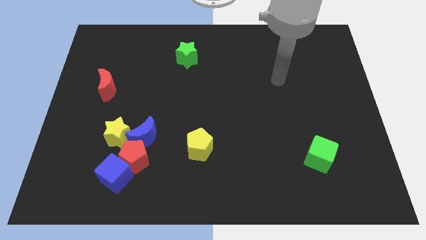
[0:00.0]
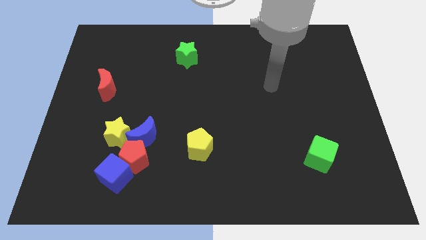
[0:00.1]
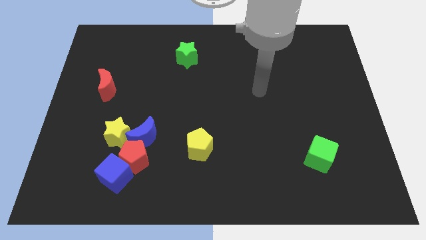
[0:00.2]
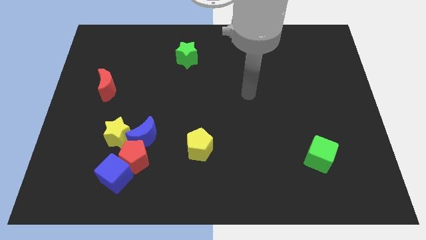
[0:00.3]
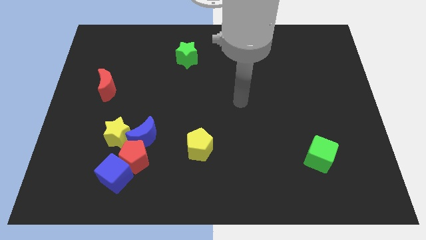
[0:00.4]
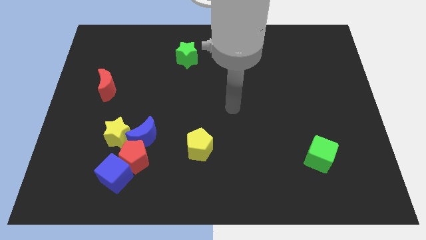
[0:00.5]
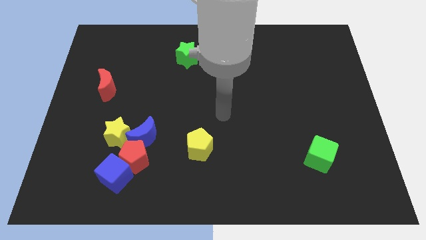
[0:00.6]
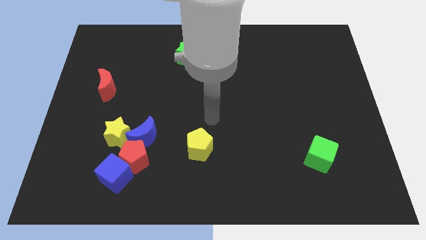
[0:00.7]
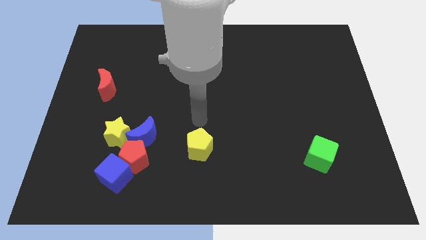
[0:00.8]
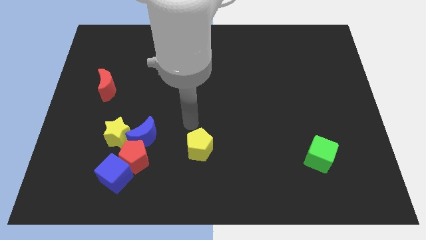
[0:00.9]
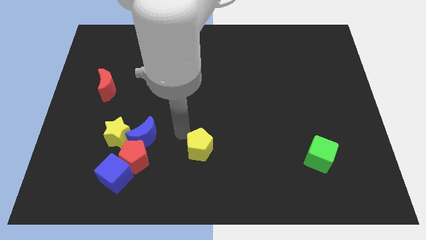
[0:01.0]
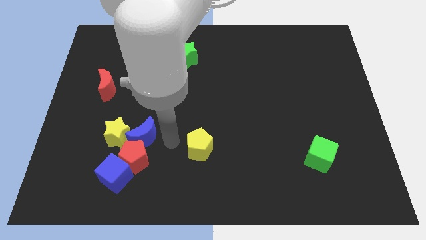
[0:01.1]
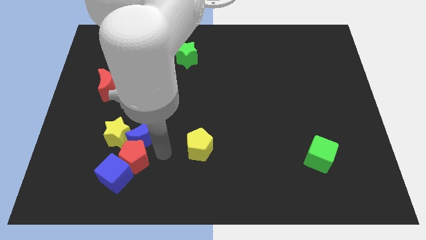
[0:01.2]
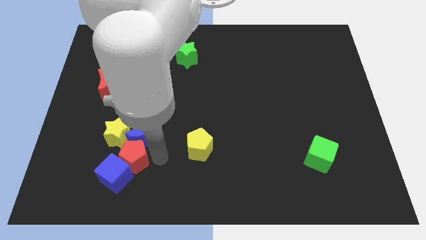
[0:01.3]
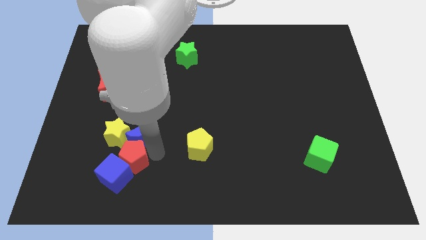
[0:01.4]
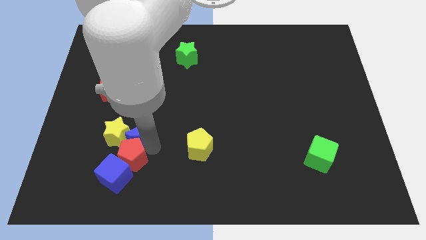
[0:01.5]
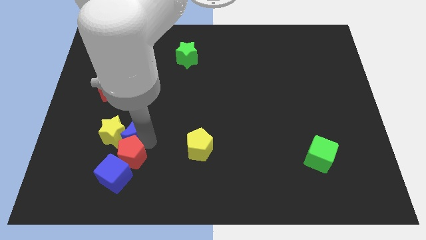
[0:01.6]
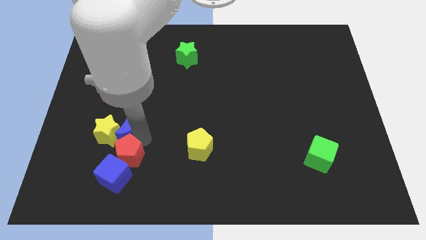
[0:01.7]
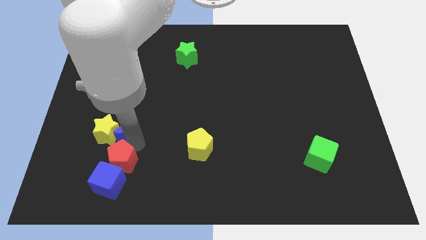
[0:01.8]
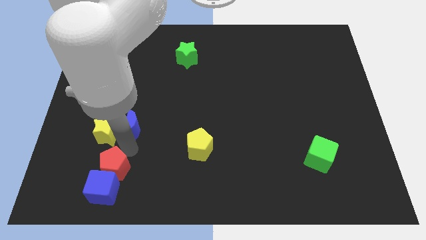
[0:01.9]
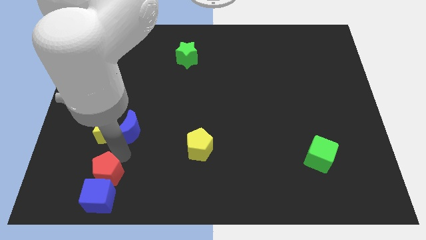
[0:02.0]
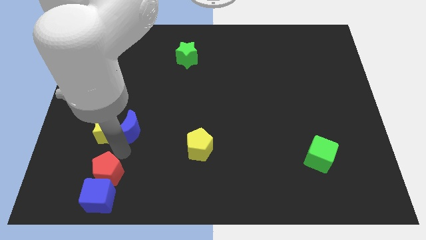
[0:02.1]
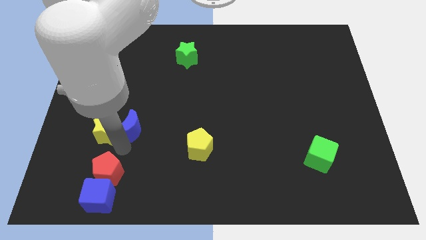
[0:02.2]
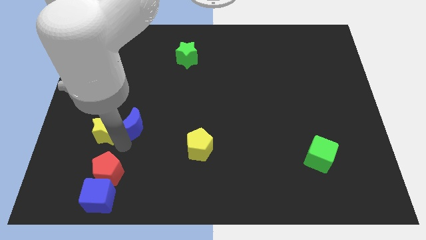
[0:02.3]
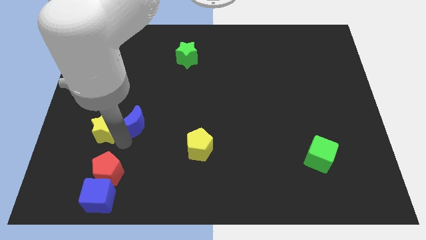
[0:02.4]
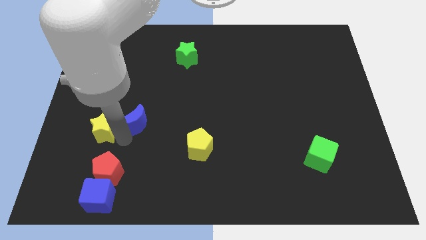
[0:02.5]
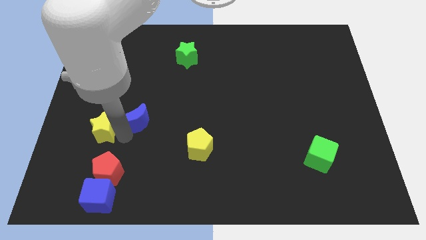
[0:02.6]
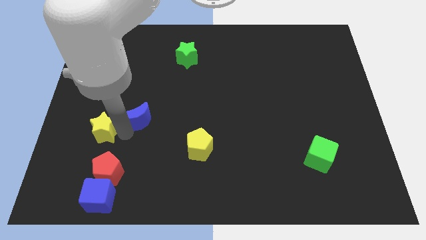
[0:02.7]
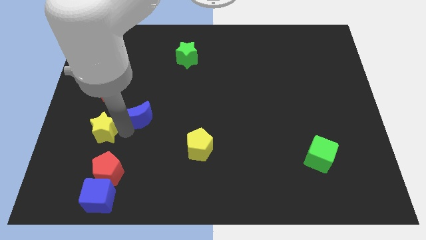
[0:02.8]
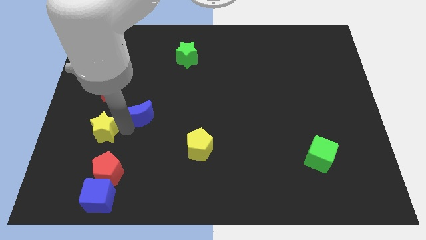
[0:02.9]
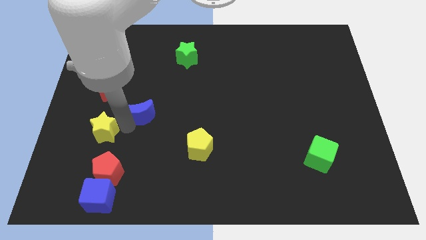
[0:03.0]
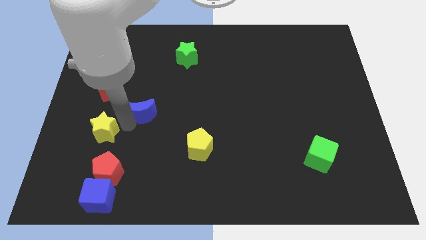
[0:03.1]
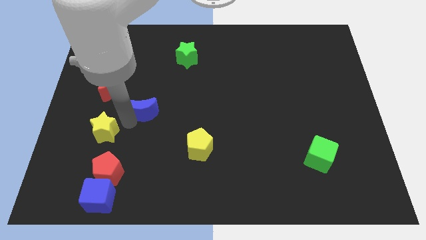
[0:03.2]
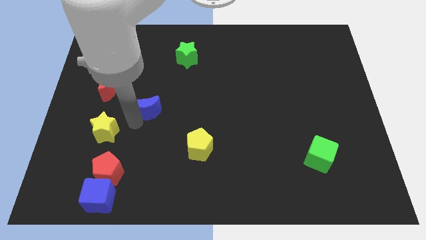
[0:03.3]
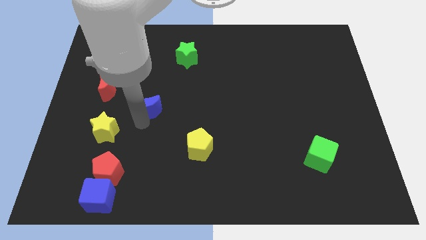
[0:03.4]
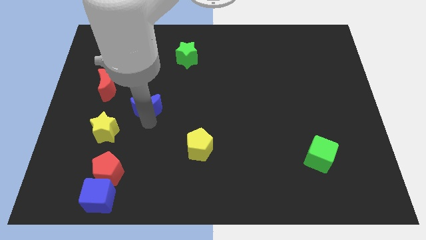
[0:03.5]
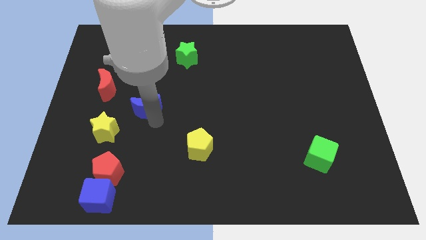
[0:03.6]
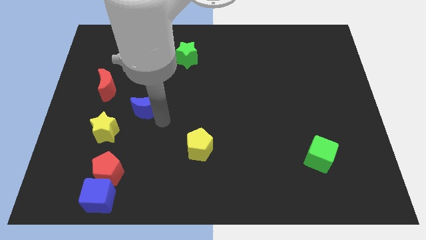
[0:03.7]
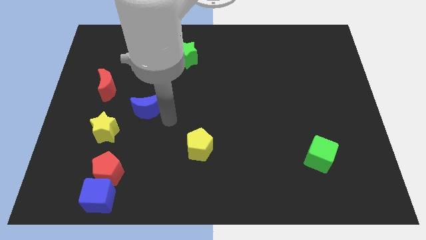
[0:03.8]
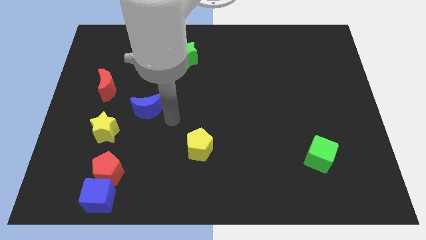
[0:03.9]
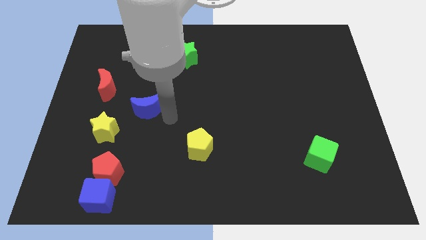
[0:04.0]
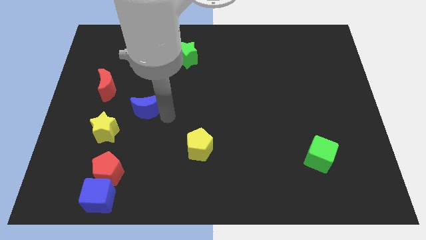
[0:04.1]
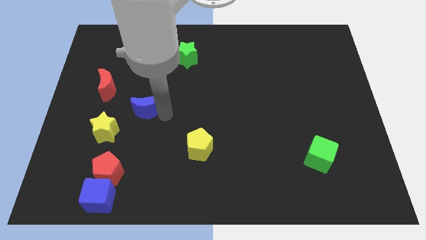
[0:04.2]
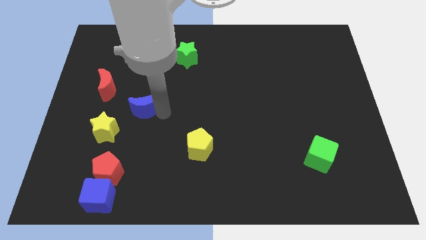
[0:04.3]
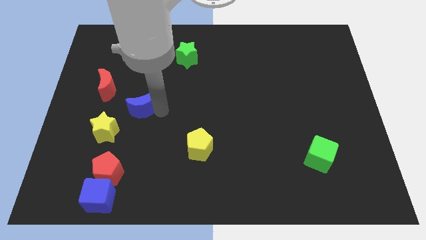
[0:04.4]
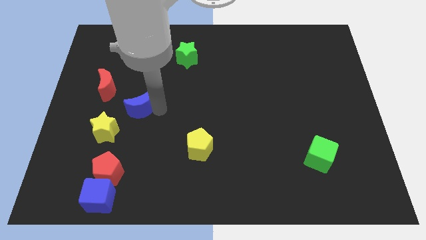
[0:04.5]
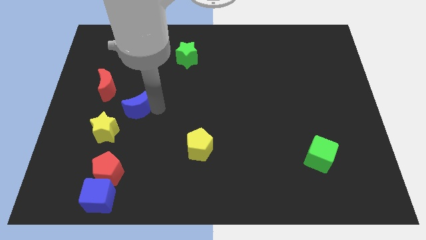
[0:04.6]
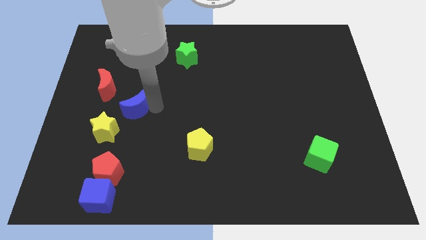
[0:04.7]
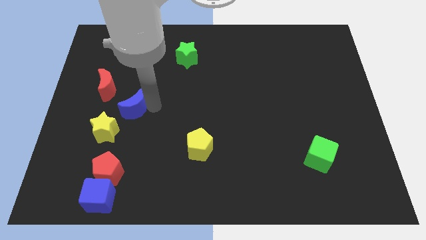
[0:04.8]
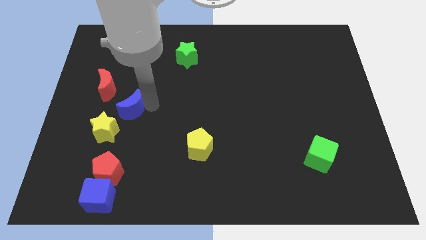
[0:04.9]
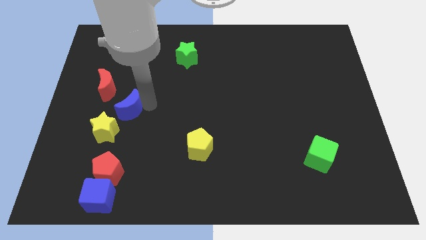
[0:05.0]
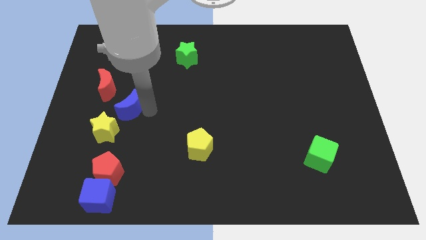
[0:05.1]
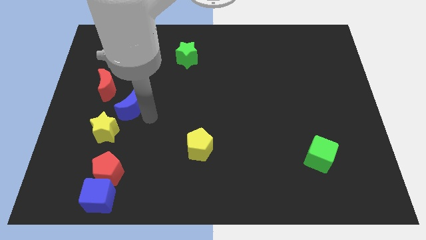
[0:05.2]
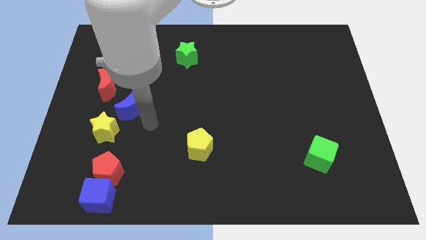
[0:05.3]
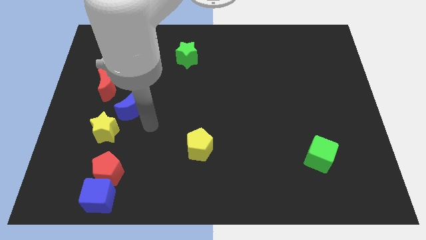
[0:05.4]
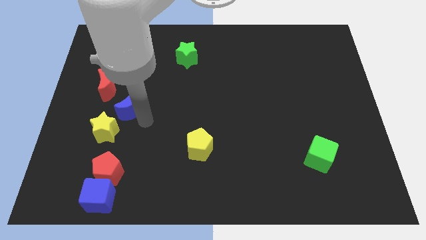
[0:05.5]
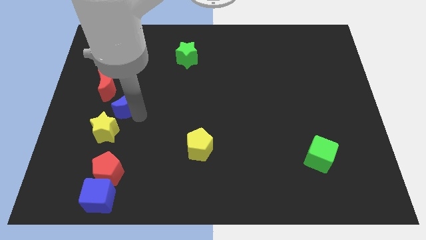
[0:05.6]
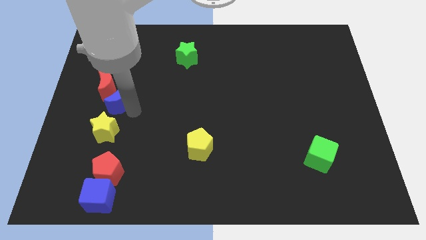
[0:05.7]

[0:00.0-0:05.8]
put the blue moon to the red moon

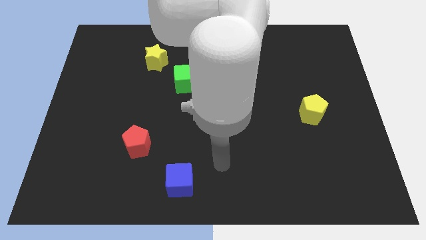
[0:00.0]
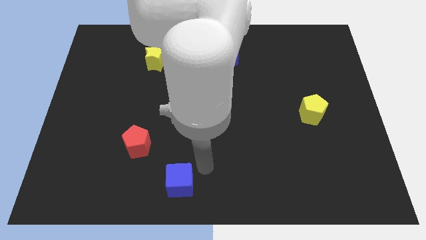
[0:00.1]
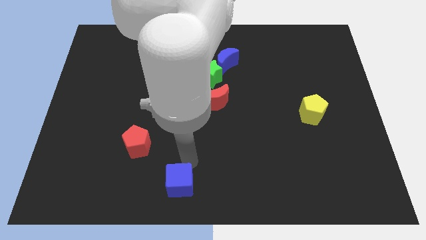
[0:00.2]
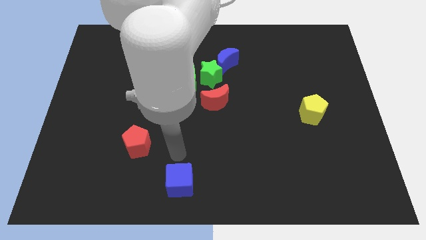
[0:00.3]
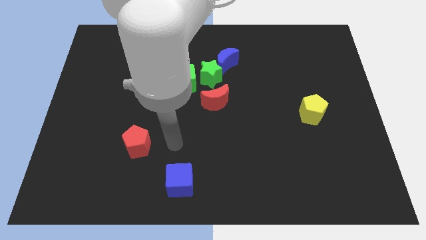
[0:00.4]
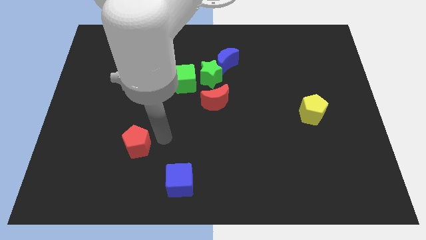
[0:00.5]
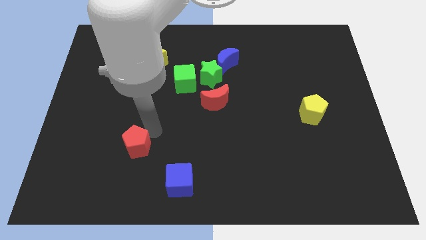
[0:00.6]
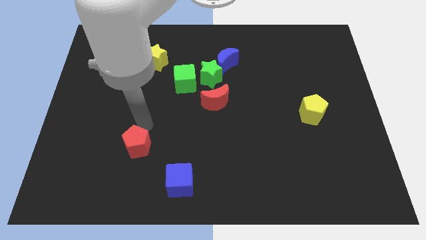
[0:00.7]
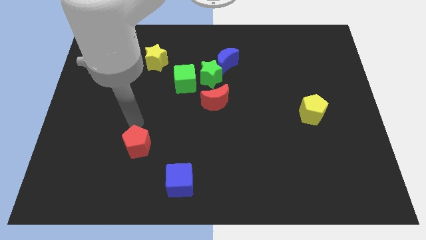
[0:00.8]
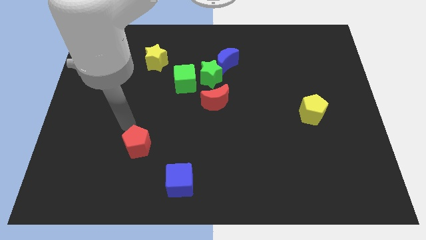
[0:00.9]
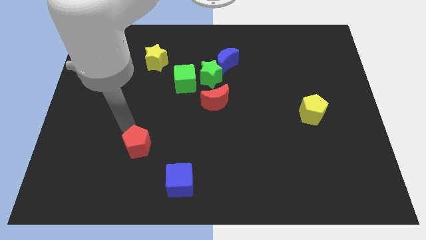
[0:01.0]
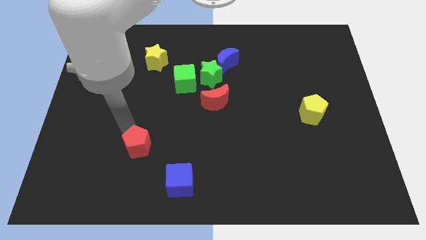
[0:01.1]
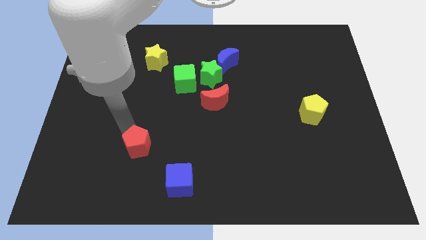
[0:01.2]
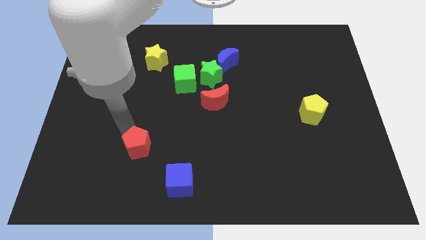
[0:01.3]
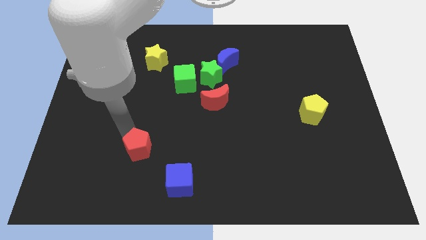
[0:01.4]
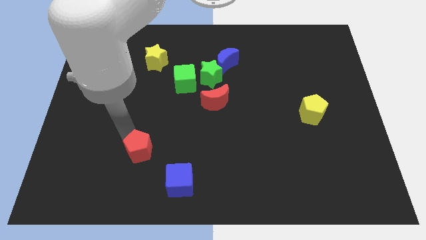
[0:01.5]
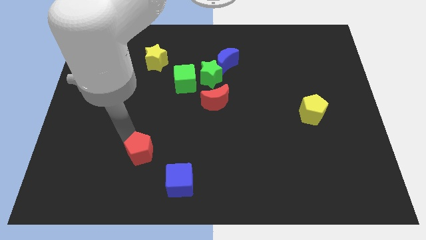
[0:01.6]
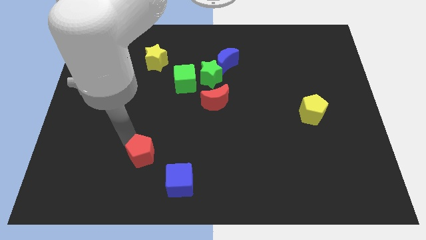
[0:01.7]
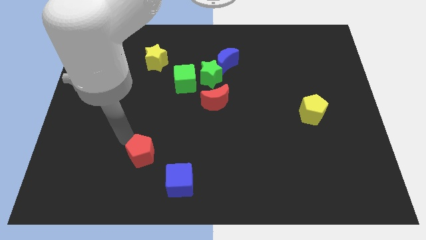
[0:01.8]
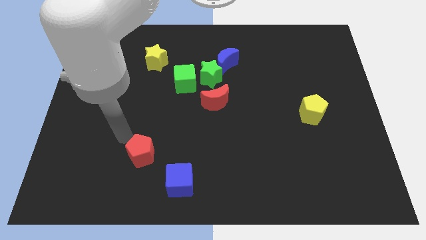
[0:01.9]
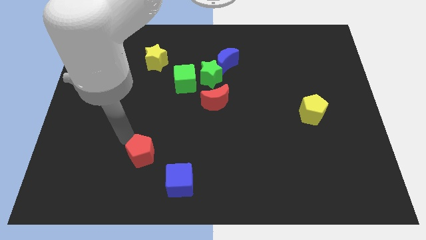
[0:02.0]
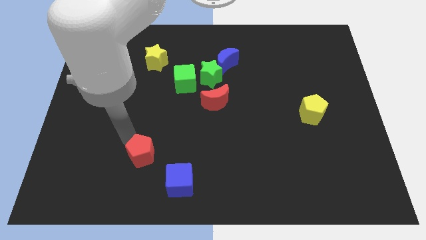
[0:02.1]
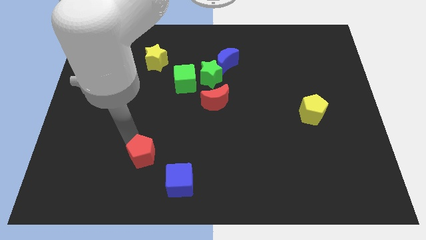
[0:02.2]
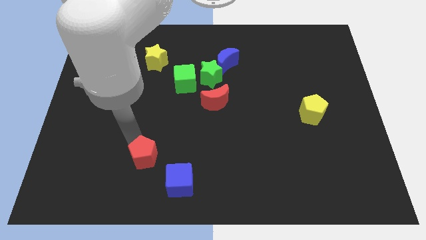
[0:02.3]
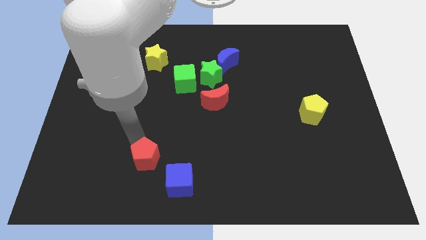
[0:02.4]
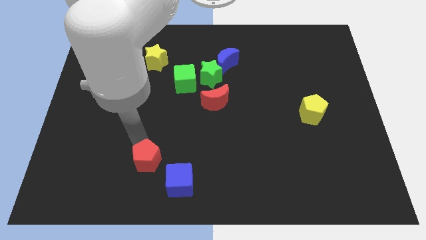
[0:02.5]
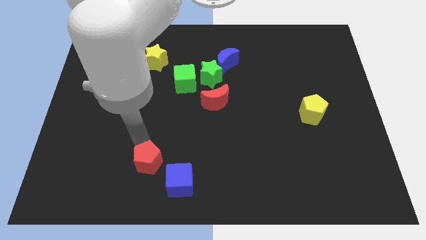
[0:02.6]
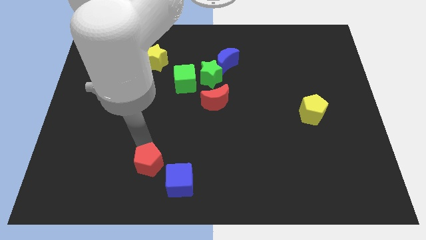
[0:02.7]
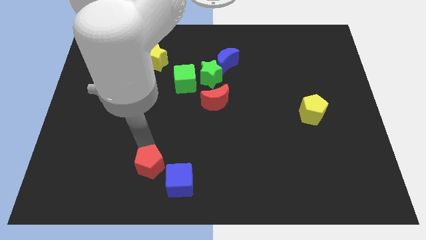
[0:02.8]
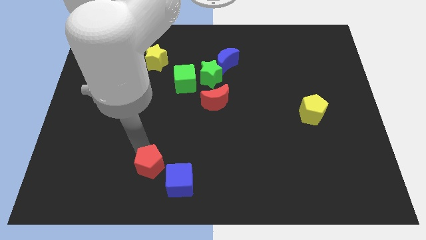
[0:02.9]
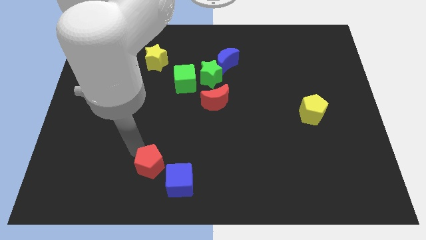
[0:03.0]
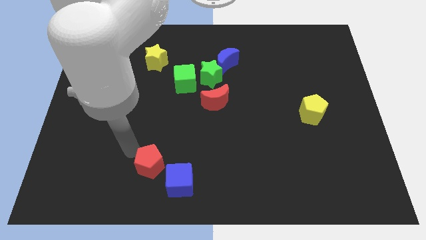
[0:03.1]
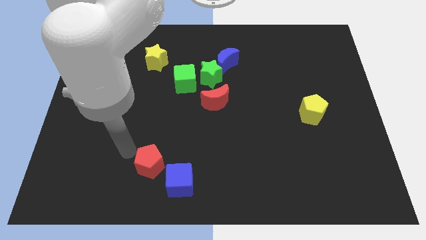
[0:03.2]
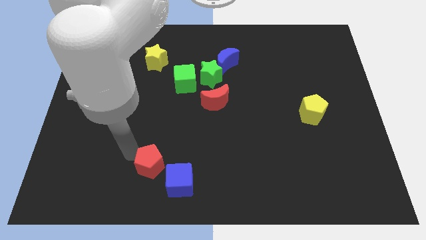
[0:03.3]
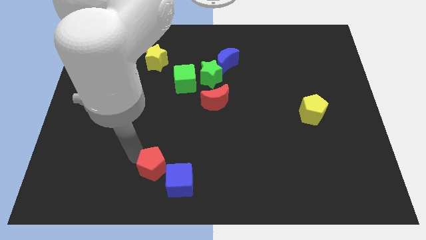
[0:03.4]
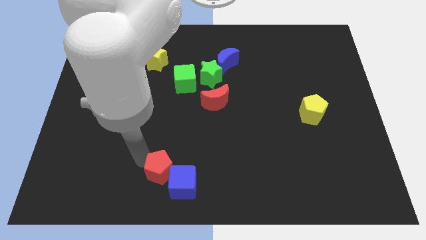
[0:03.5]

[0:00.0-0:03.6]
slide the red pentagon to the blue cube
